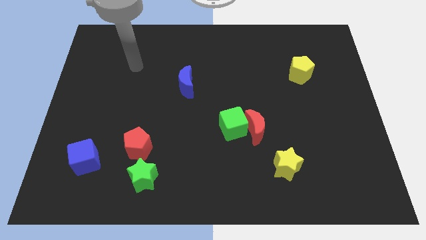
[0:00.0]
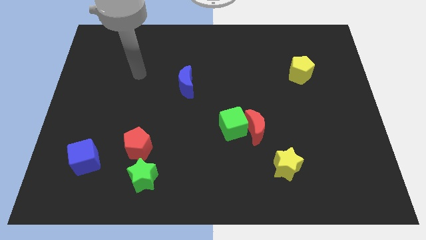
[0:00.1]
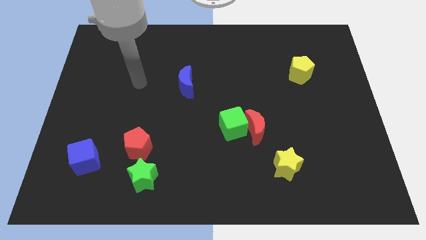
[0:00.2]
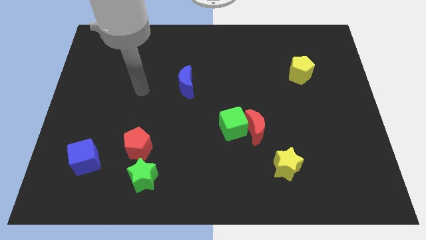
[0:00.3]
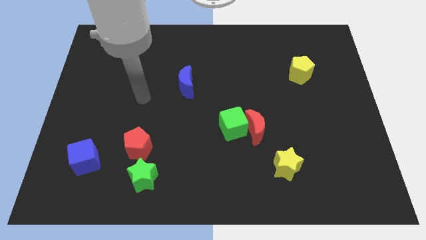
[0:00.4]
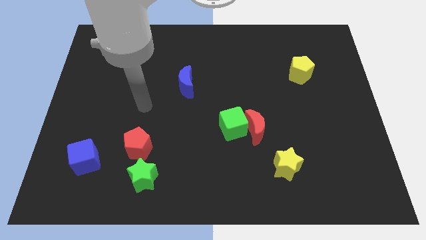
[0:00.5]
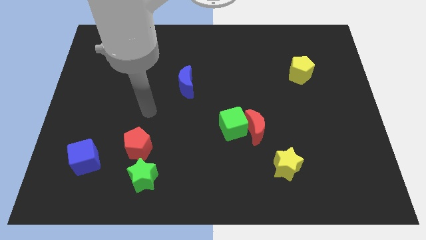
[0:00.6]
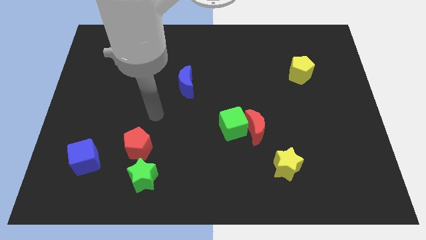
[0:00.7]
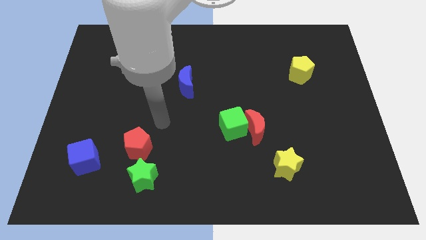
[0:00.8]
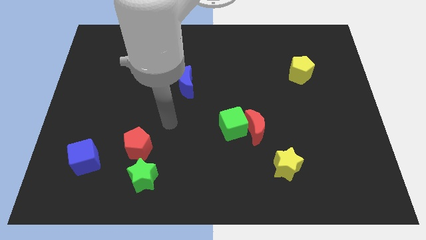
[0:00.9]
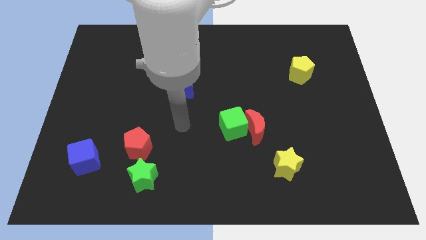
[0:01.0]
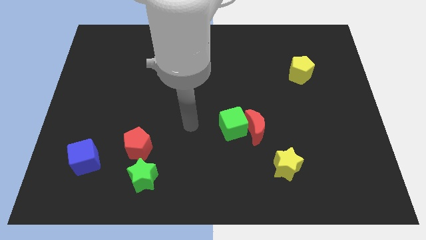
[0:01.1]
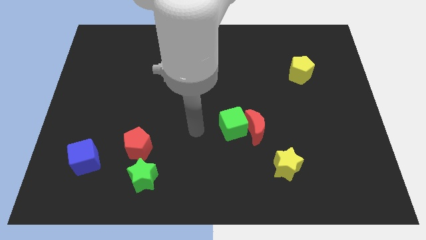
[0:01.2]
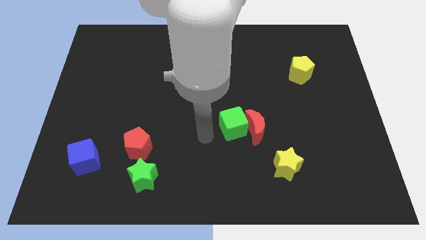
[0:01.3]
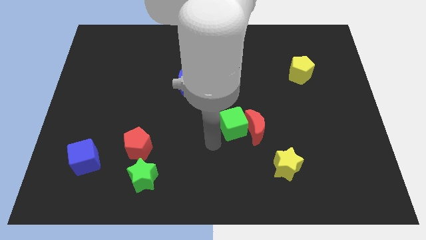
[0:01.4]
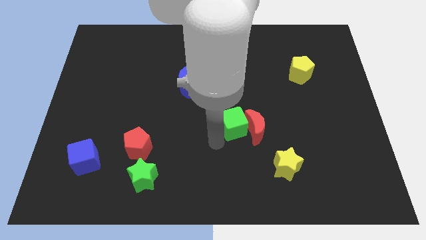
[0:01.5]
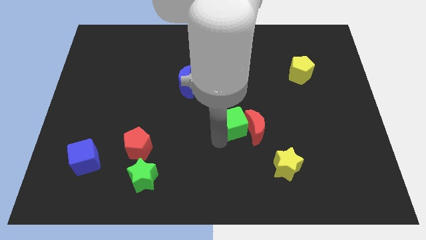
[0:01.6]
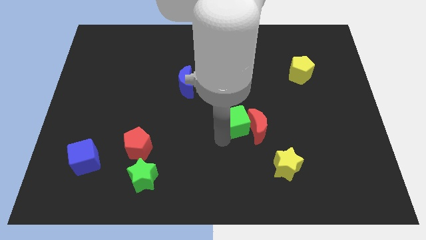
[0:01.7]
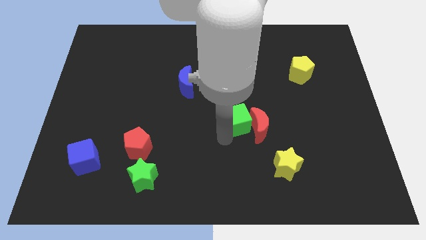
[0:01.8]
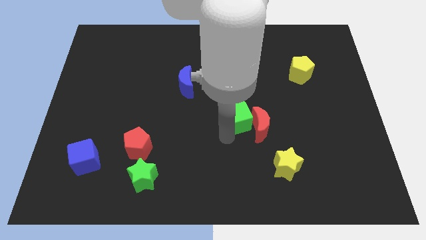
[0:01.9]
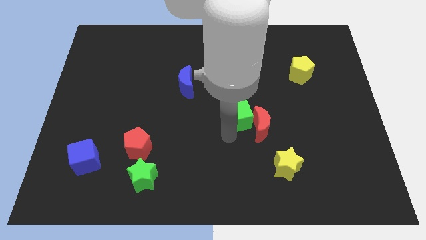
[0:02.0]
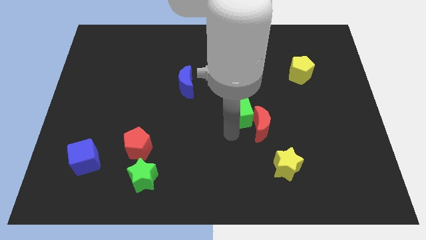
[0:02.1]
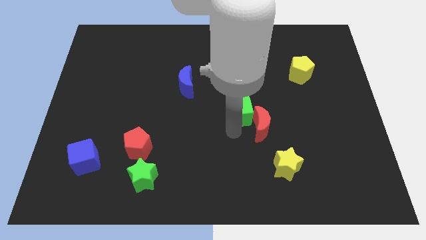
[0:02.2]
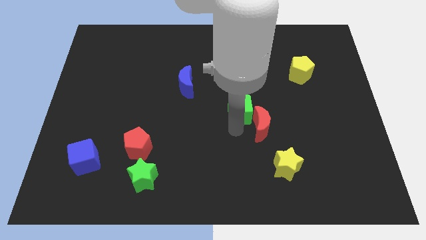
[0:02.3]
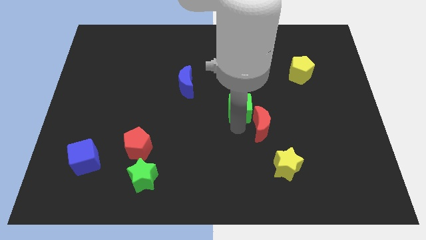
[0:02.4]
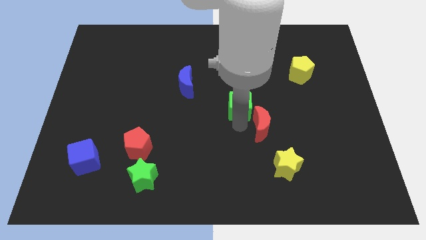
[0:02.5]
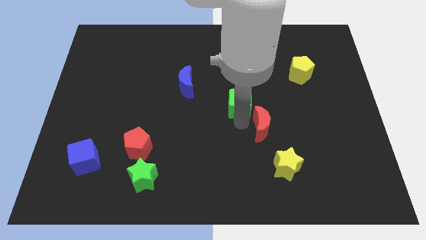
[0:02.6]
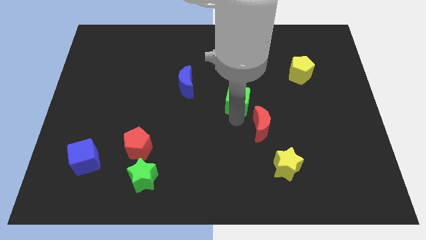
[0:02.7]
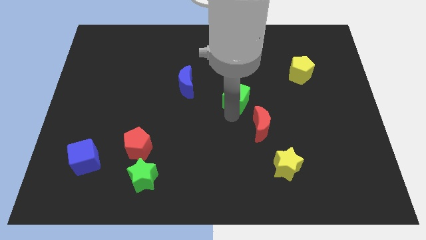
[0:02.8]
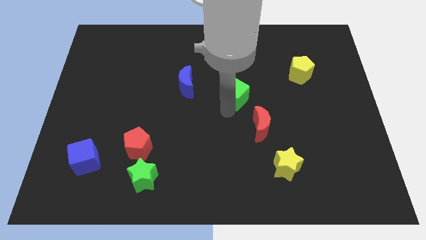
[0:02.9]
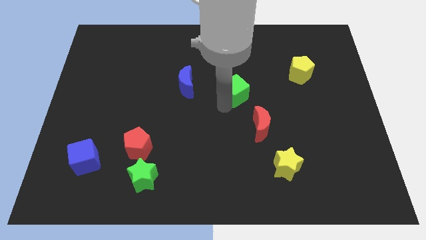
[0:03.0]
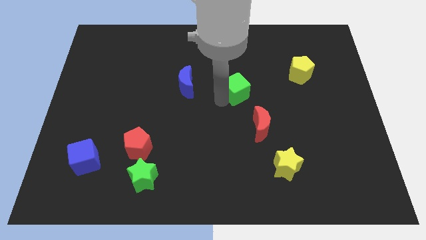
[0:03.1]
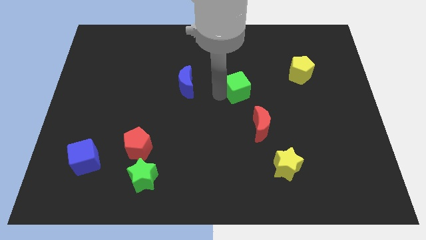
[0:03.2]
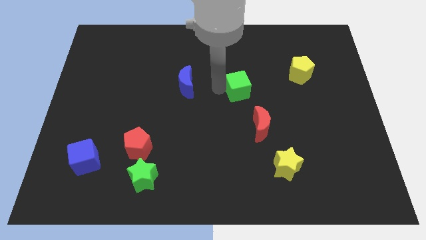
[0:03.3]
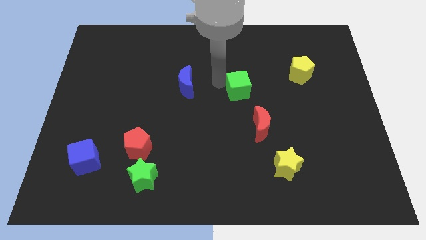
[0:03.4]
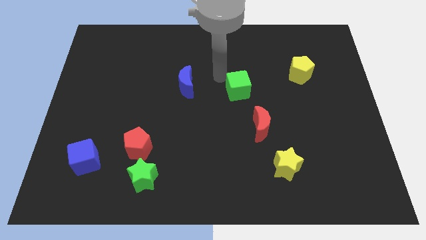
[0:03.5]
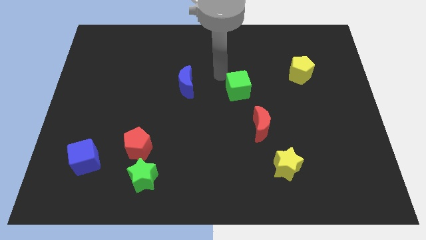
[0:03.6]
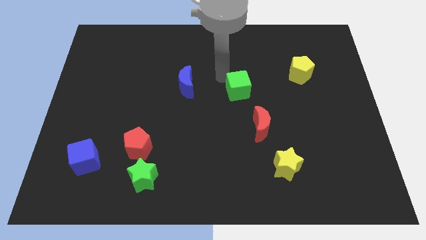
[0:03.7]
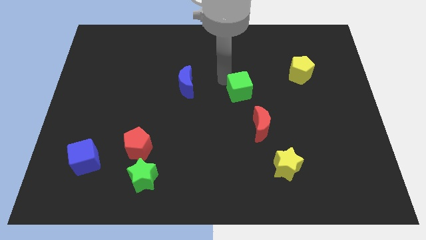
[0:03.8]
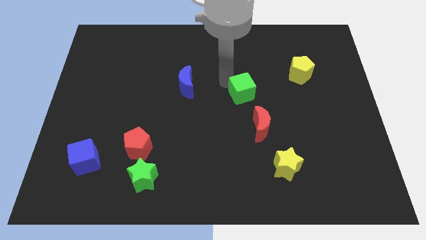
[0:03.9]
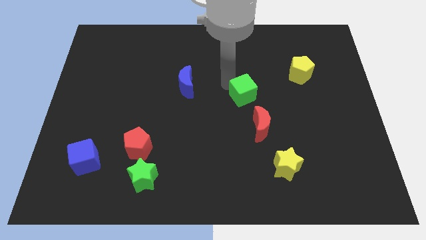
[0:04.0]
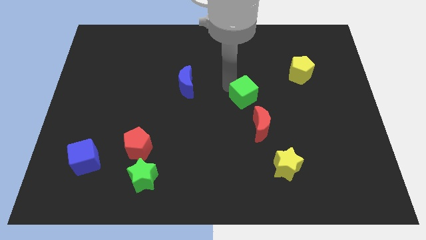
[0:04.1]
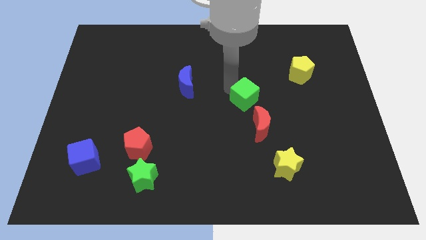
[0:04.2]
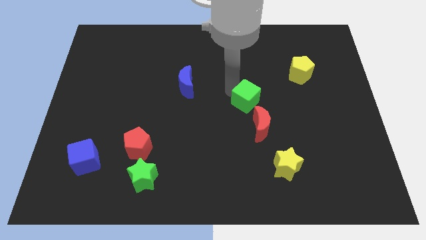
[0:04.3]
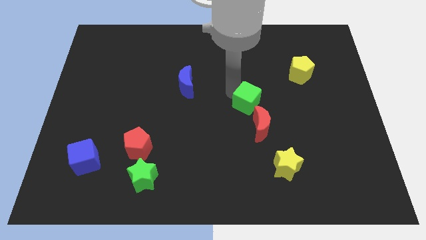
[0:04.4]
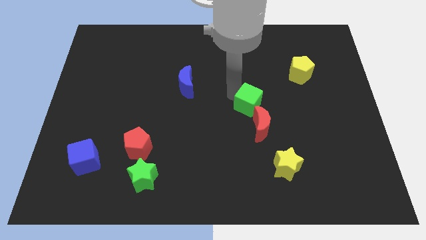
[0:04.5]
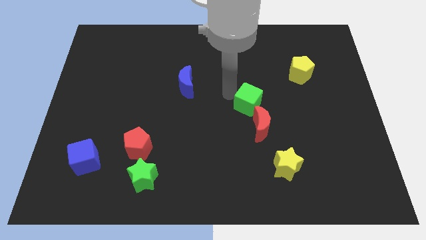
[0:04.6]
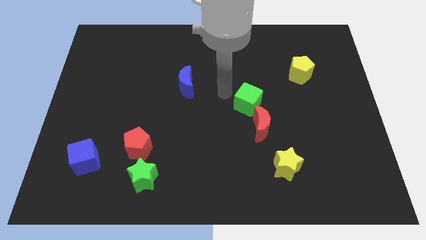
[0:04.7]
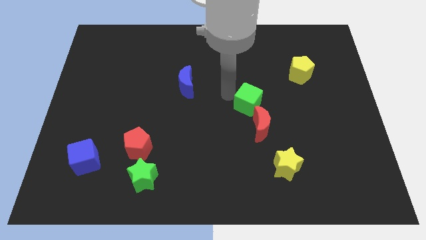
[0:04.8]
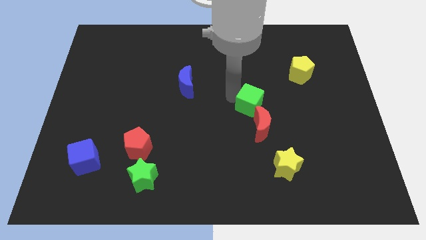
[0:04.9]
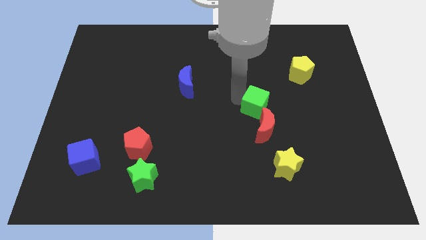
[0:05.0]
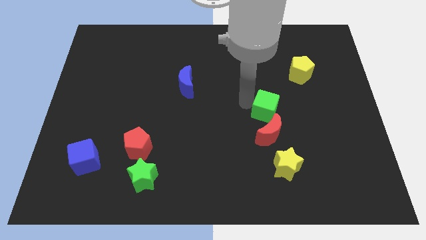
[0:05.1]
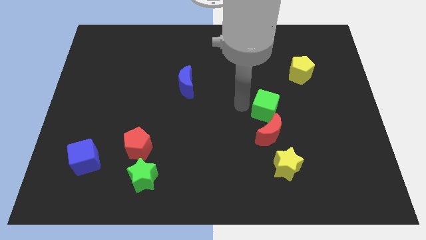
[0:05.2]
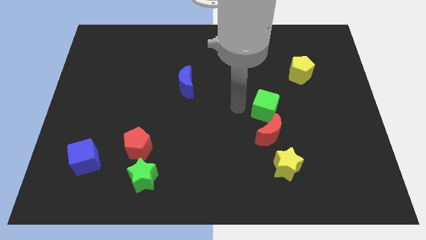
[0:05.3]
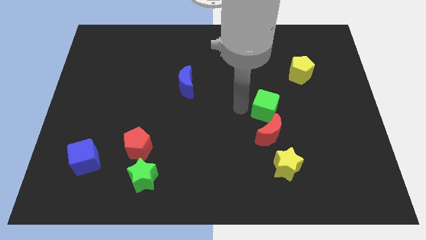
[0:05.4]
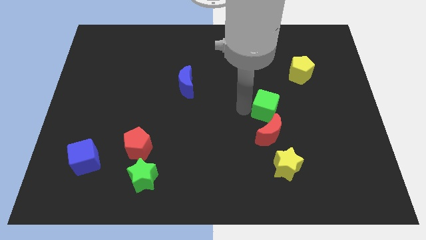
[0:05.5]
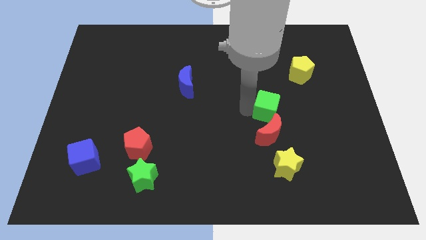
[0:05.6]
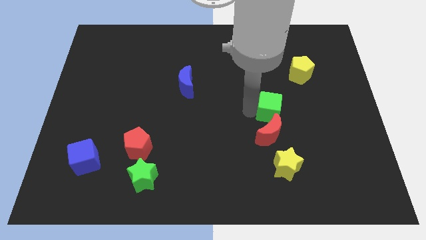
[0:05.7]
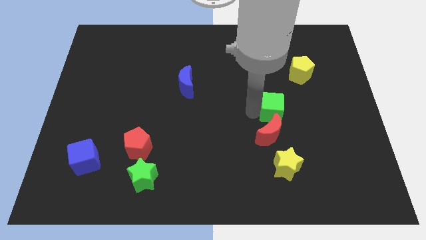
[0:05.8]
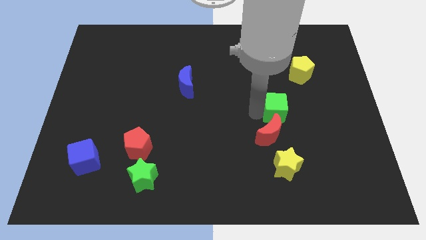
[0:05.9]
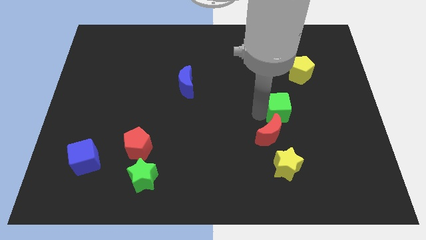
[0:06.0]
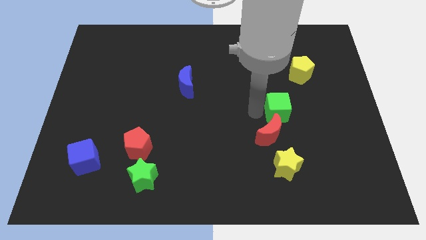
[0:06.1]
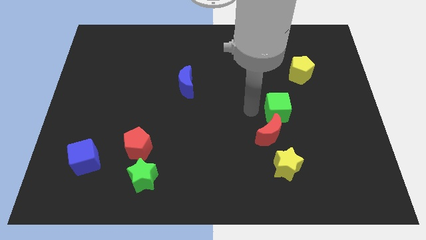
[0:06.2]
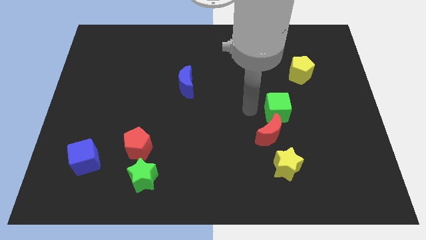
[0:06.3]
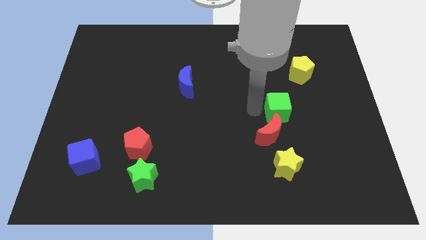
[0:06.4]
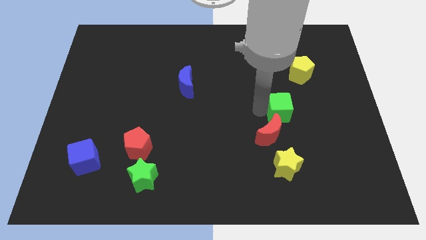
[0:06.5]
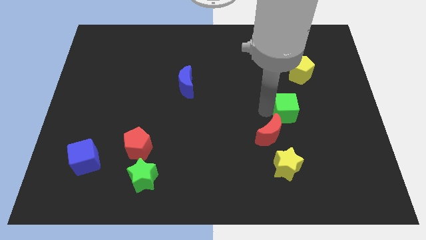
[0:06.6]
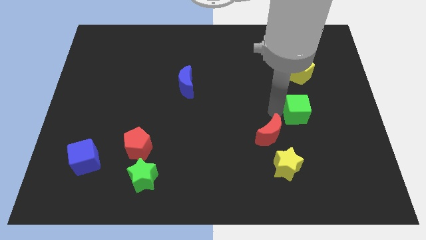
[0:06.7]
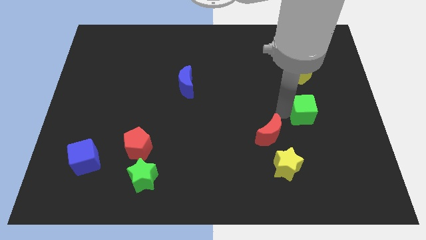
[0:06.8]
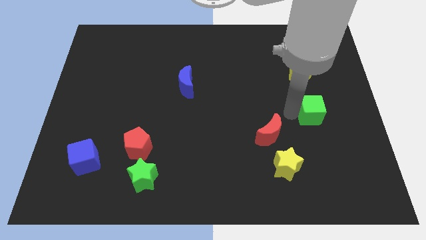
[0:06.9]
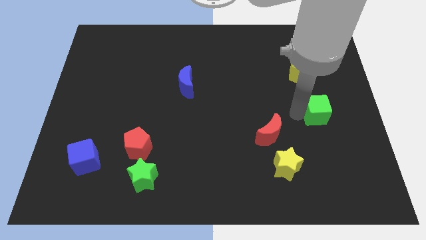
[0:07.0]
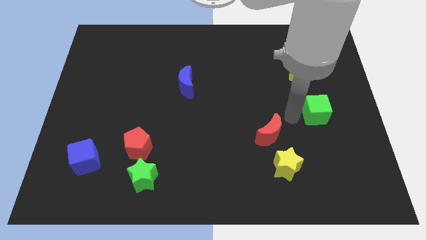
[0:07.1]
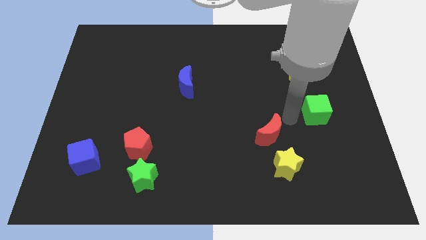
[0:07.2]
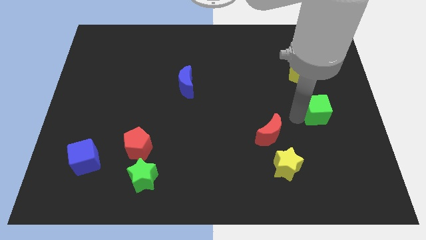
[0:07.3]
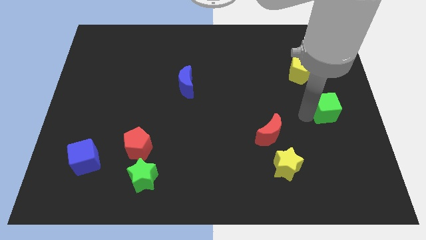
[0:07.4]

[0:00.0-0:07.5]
put the green cube to the center right
